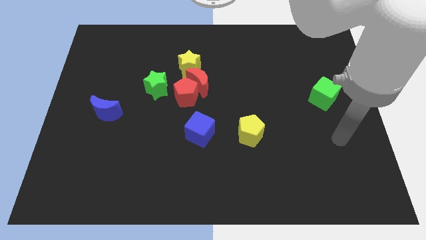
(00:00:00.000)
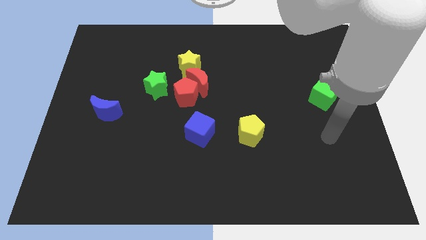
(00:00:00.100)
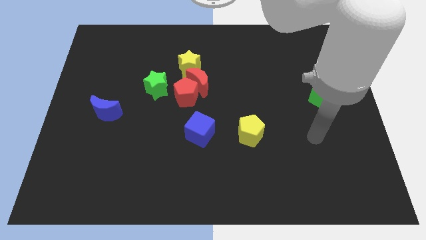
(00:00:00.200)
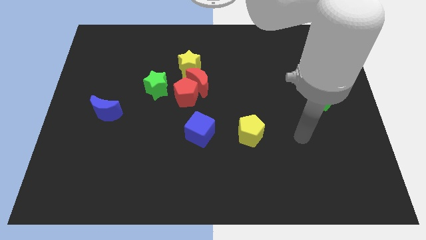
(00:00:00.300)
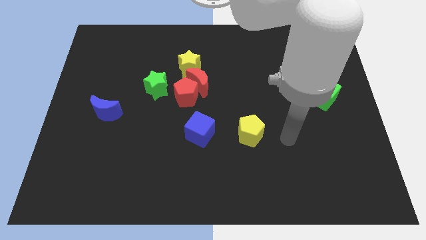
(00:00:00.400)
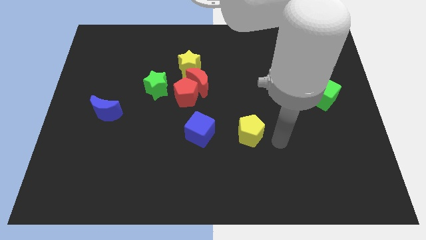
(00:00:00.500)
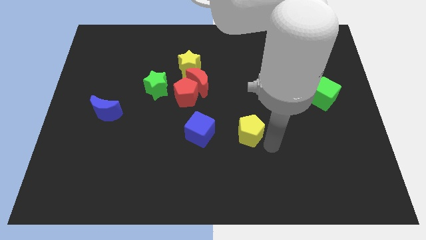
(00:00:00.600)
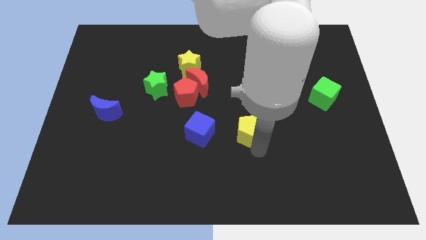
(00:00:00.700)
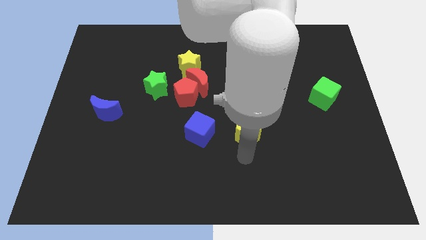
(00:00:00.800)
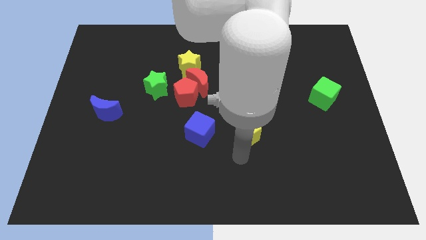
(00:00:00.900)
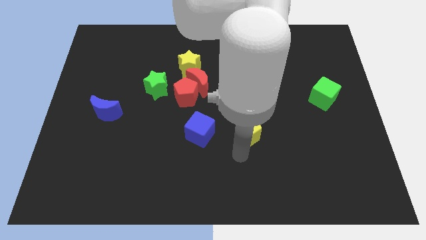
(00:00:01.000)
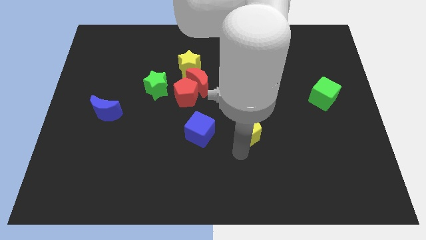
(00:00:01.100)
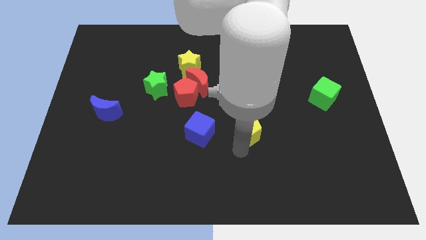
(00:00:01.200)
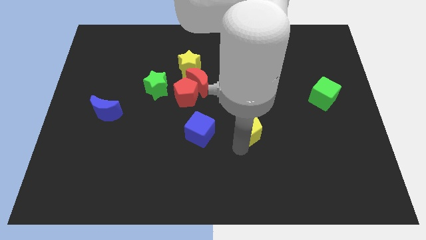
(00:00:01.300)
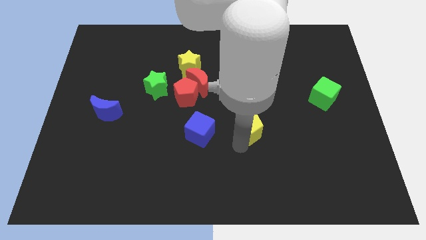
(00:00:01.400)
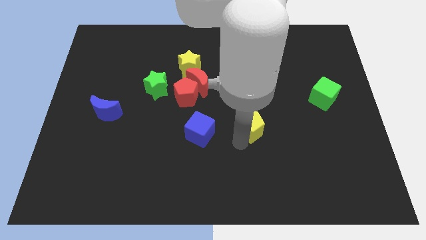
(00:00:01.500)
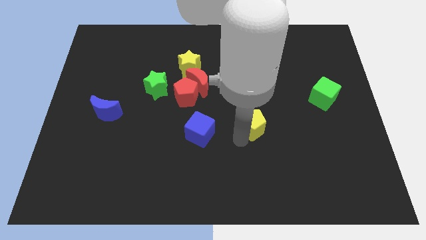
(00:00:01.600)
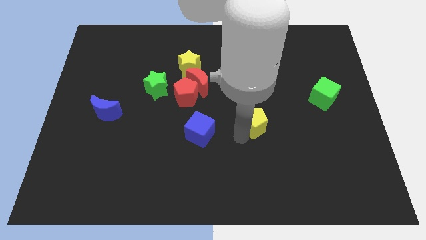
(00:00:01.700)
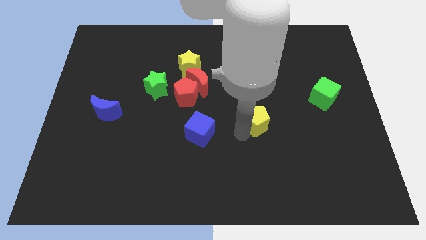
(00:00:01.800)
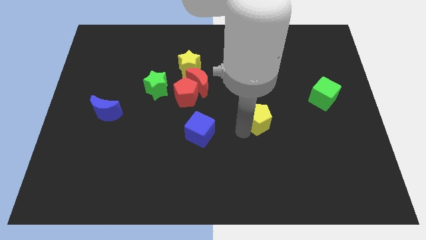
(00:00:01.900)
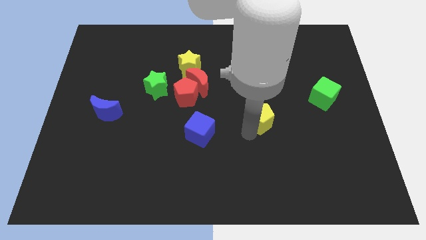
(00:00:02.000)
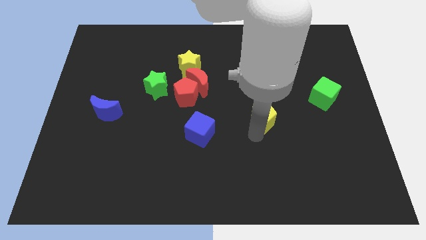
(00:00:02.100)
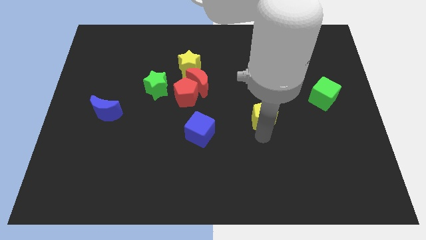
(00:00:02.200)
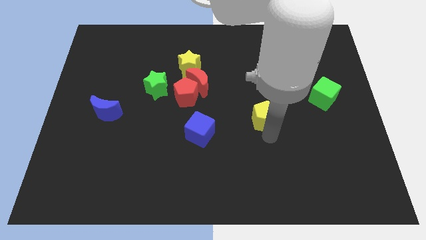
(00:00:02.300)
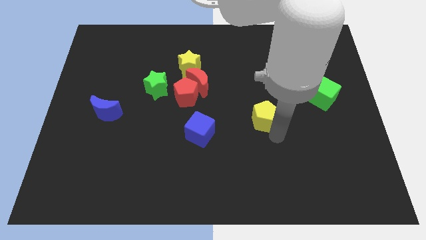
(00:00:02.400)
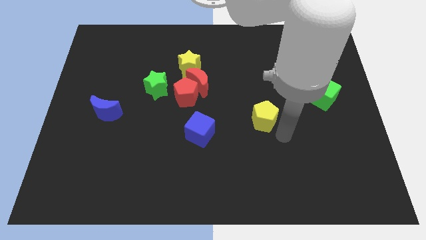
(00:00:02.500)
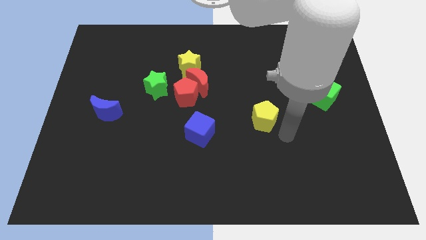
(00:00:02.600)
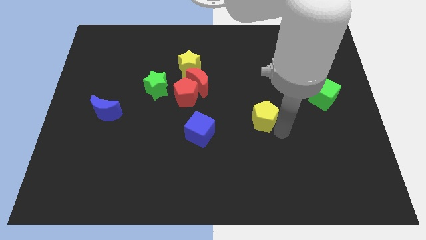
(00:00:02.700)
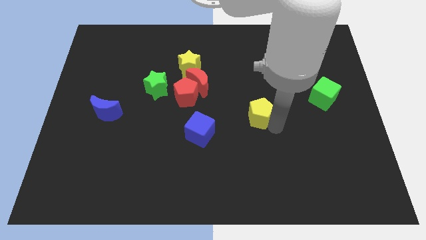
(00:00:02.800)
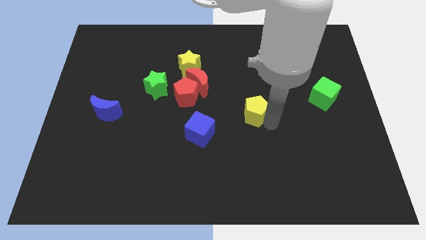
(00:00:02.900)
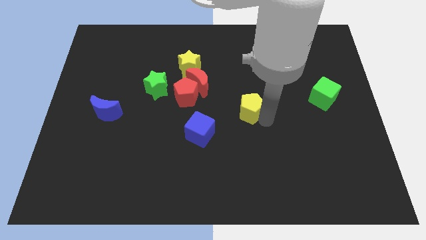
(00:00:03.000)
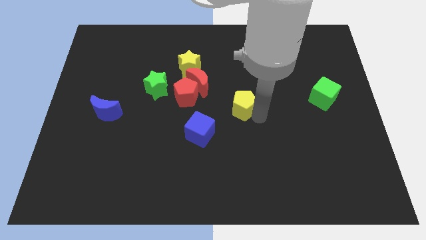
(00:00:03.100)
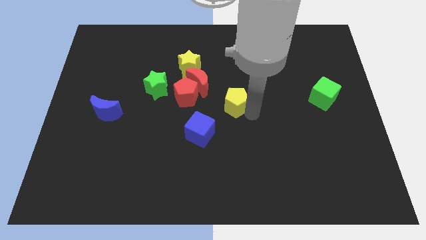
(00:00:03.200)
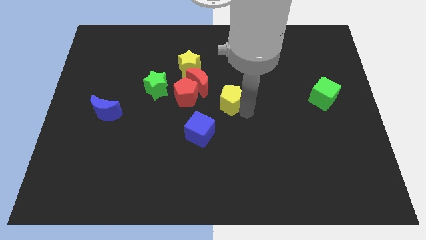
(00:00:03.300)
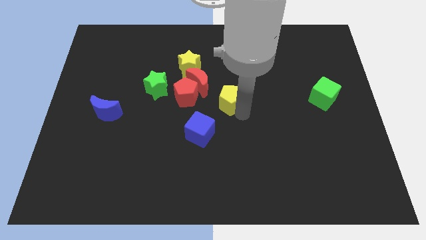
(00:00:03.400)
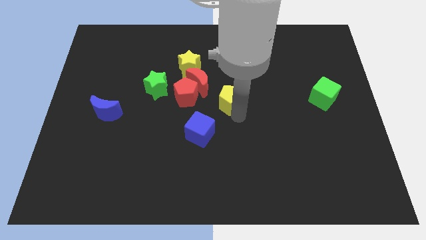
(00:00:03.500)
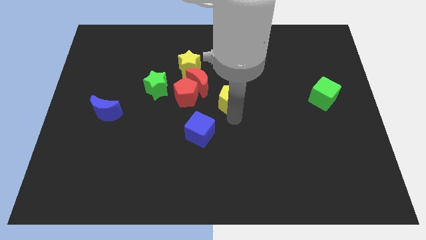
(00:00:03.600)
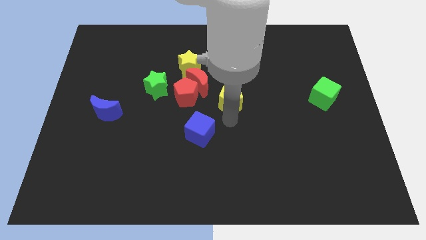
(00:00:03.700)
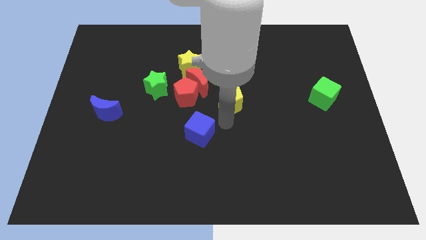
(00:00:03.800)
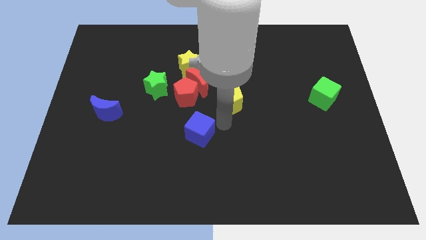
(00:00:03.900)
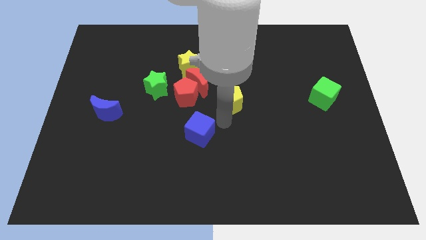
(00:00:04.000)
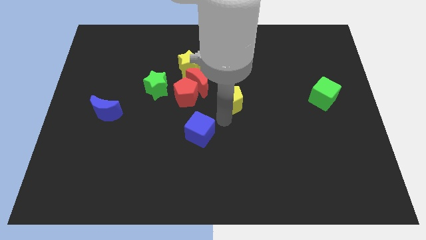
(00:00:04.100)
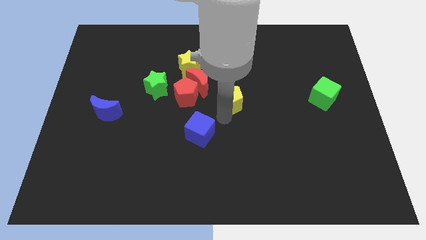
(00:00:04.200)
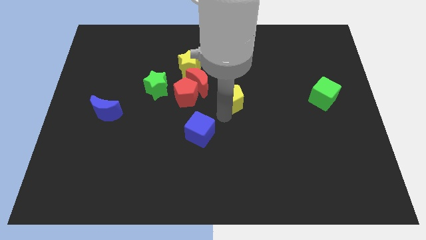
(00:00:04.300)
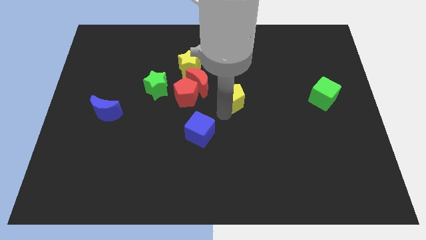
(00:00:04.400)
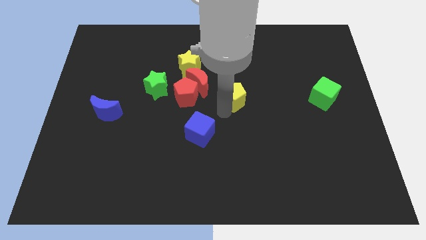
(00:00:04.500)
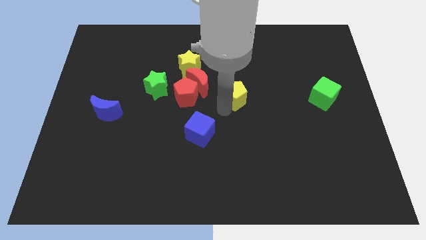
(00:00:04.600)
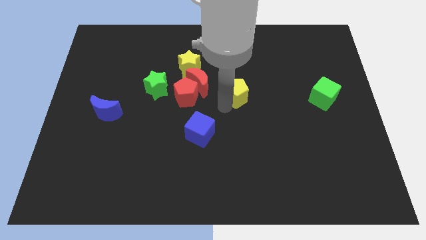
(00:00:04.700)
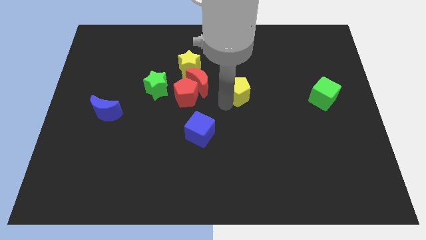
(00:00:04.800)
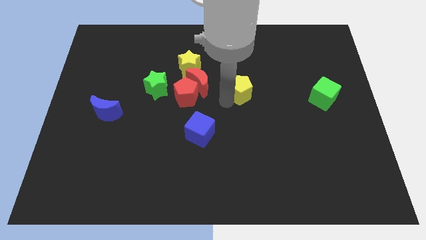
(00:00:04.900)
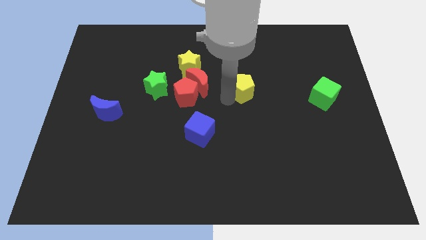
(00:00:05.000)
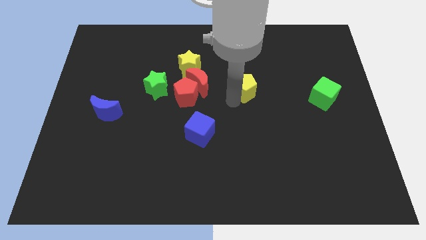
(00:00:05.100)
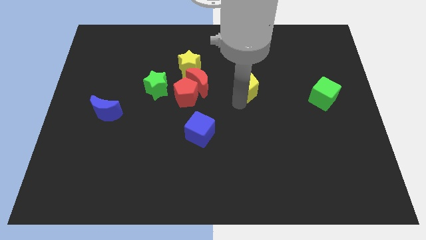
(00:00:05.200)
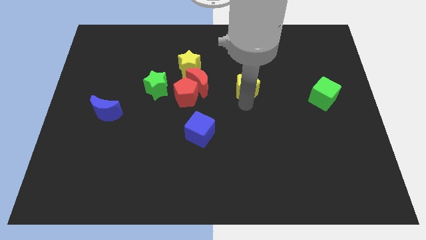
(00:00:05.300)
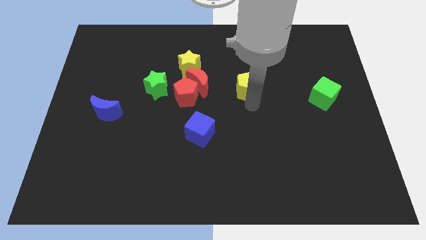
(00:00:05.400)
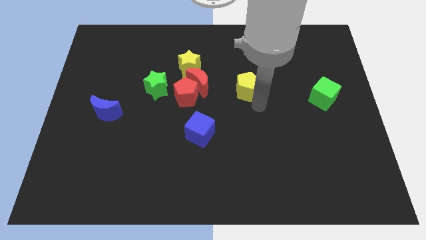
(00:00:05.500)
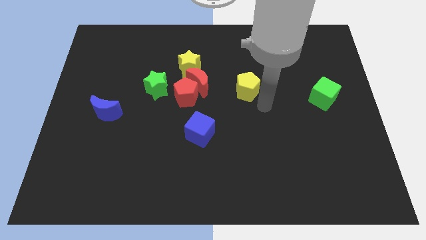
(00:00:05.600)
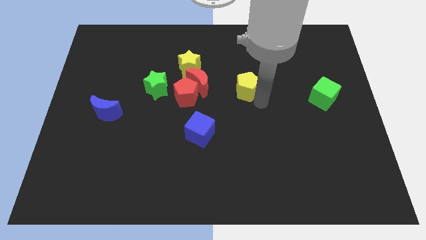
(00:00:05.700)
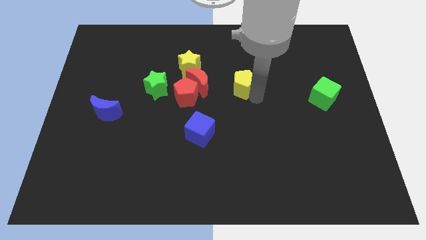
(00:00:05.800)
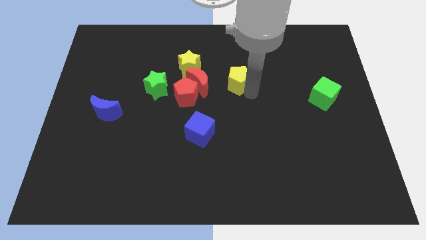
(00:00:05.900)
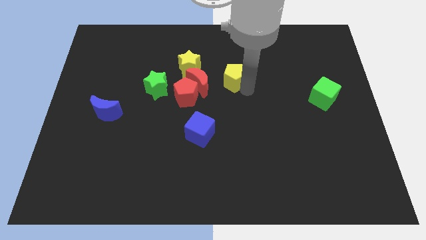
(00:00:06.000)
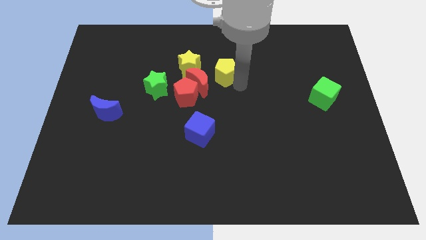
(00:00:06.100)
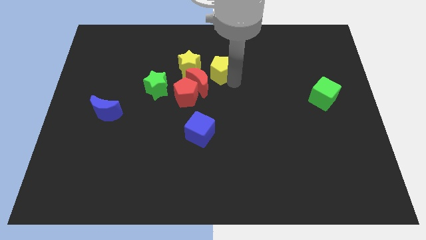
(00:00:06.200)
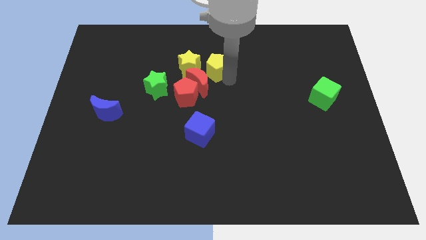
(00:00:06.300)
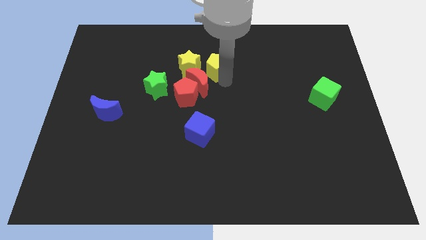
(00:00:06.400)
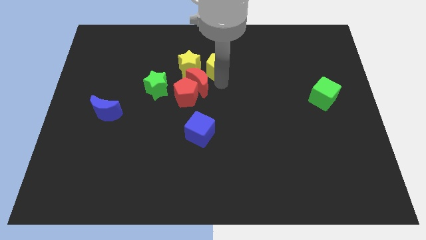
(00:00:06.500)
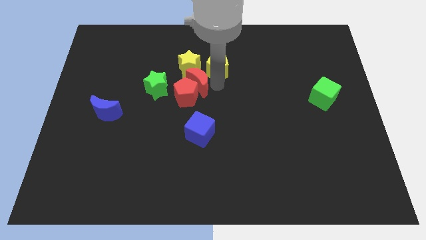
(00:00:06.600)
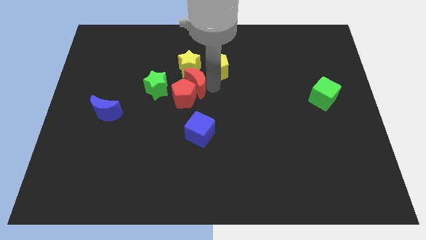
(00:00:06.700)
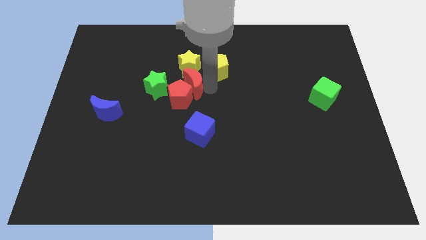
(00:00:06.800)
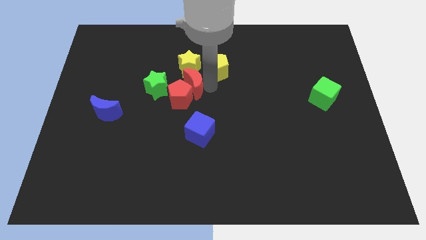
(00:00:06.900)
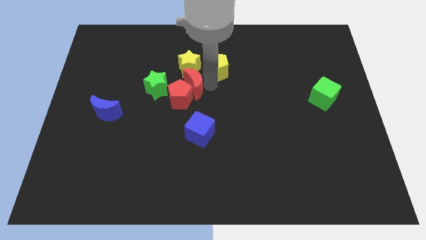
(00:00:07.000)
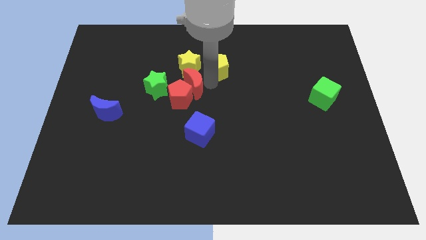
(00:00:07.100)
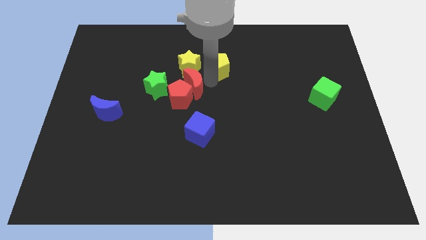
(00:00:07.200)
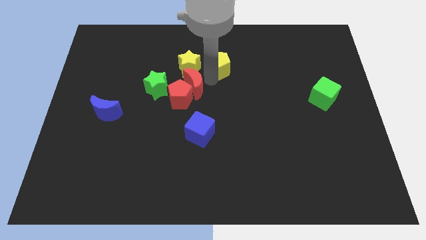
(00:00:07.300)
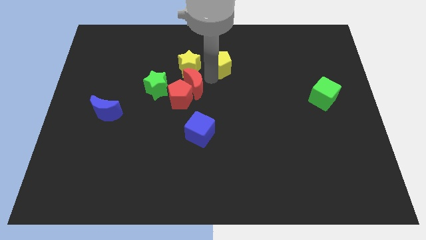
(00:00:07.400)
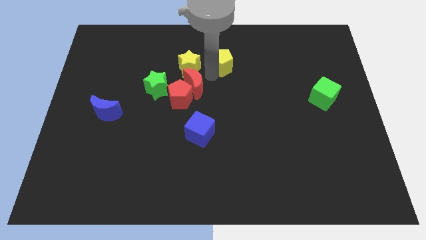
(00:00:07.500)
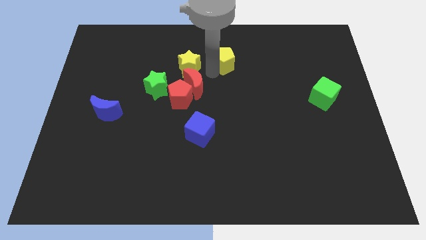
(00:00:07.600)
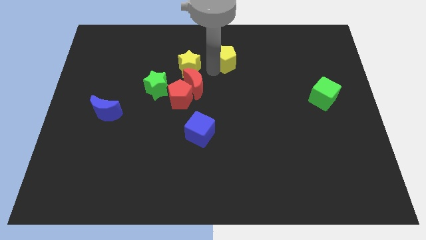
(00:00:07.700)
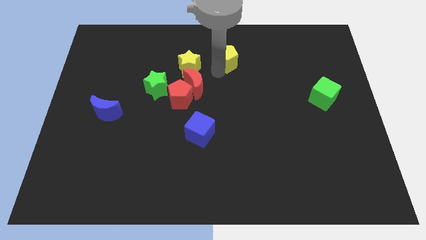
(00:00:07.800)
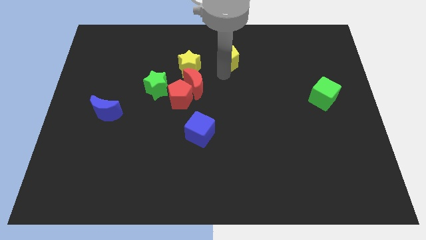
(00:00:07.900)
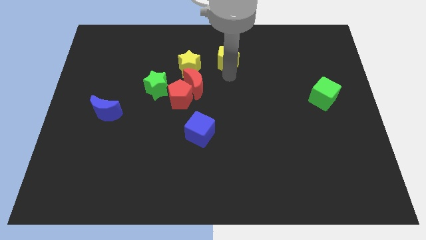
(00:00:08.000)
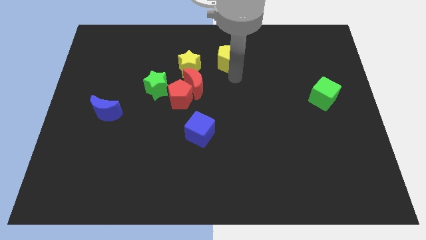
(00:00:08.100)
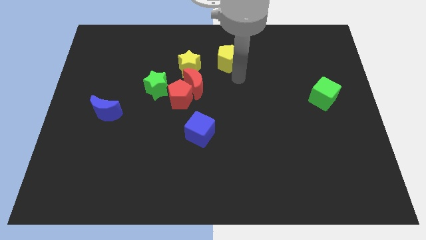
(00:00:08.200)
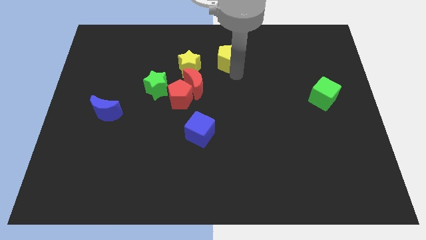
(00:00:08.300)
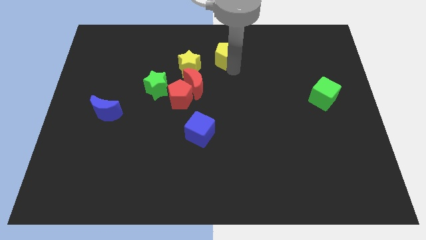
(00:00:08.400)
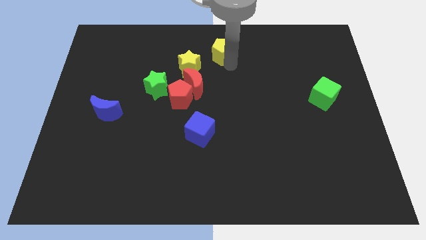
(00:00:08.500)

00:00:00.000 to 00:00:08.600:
move the yellow pentagon to the top
